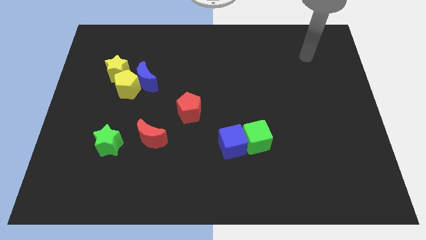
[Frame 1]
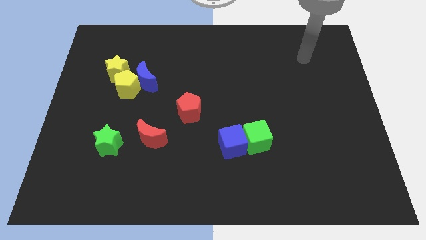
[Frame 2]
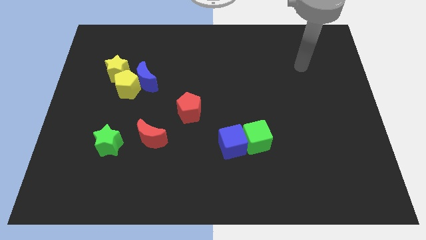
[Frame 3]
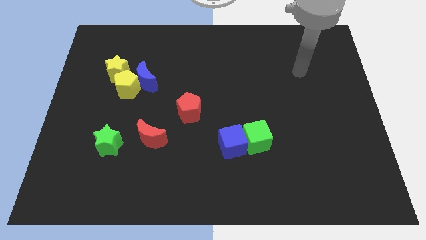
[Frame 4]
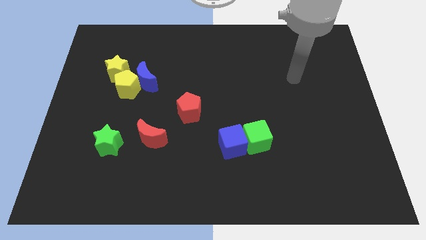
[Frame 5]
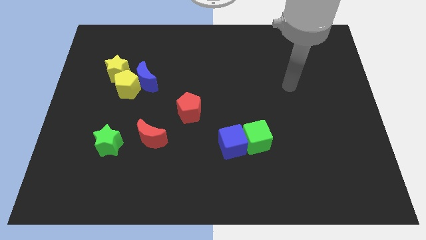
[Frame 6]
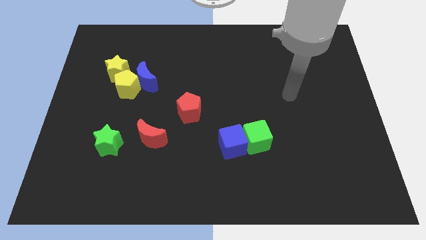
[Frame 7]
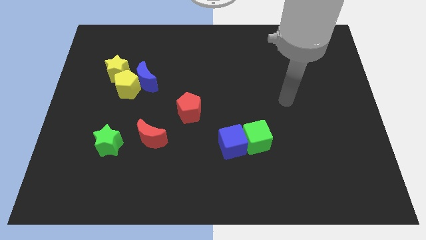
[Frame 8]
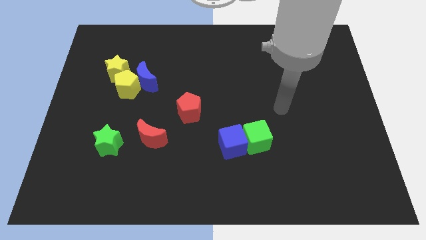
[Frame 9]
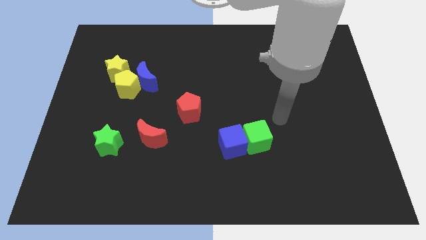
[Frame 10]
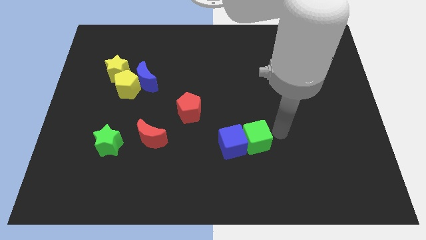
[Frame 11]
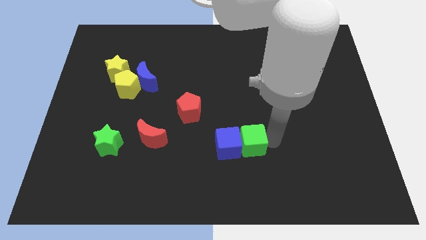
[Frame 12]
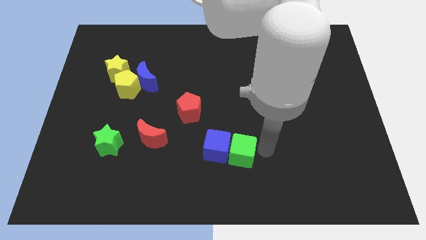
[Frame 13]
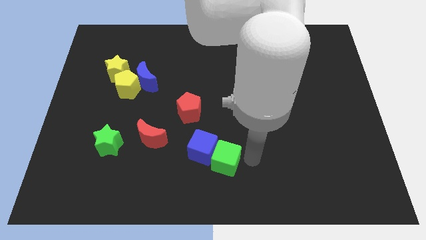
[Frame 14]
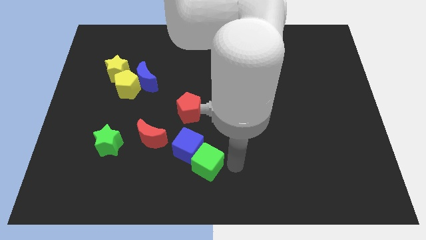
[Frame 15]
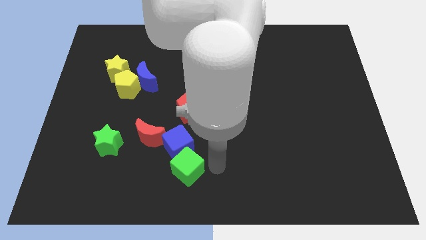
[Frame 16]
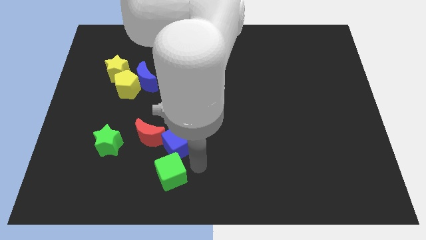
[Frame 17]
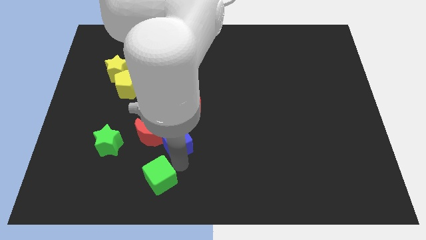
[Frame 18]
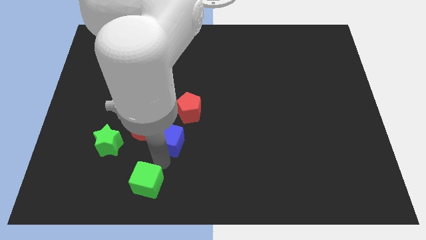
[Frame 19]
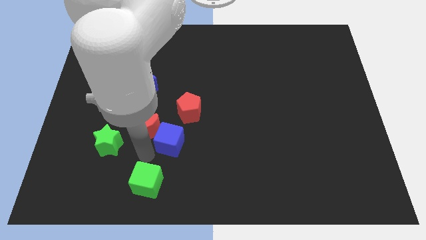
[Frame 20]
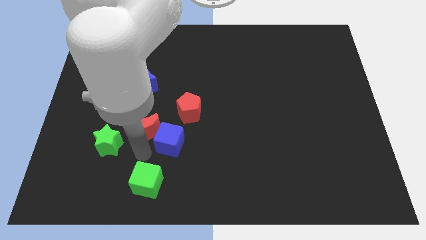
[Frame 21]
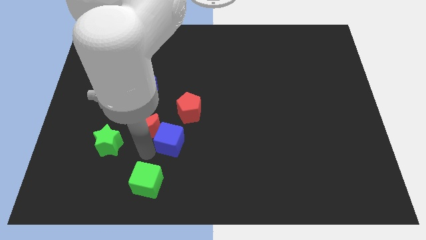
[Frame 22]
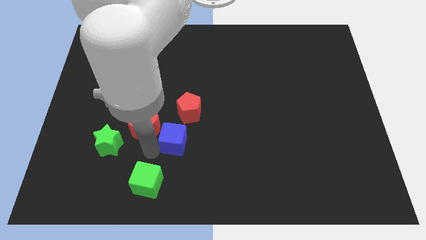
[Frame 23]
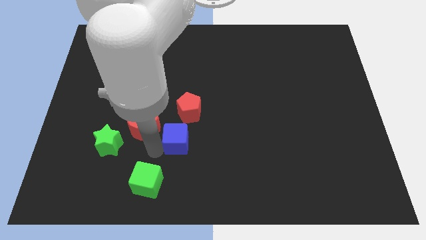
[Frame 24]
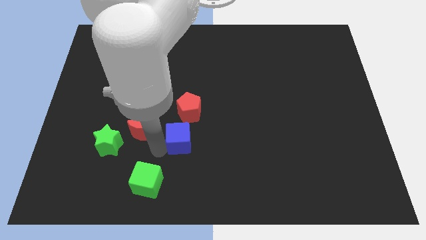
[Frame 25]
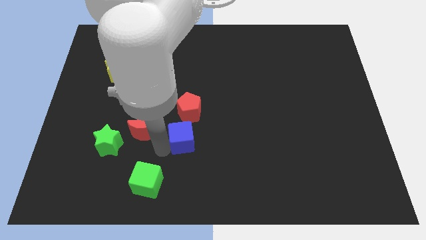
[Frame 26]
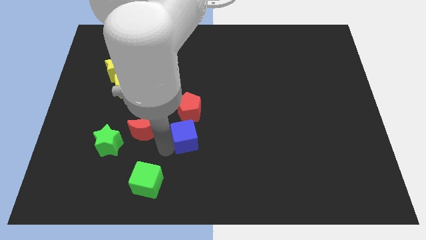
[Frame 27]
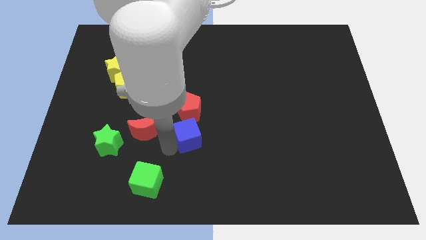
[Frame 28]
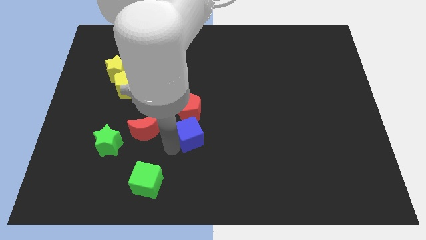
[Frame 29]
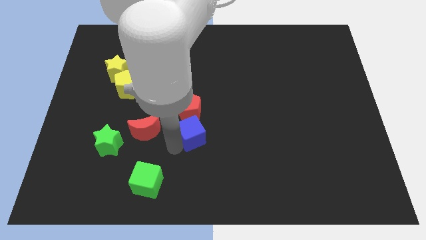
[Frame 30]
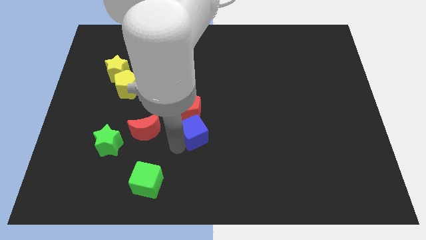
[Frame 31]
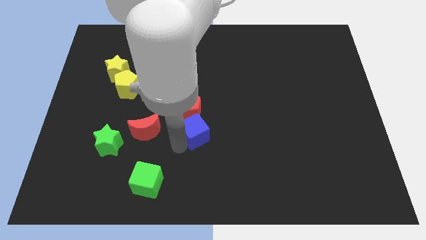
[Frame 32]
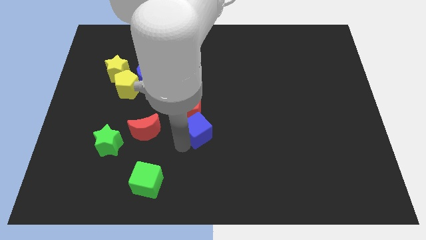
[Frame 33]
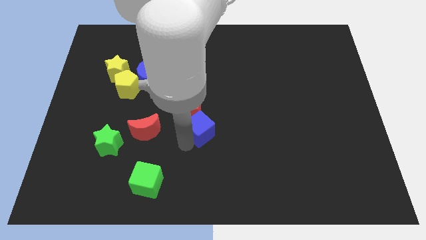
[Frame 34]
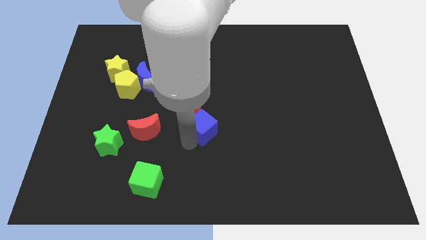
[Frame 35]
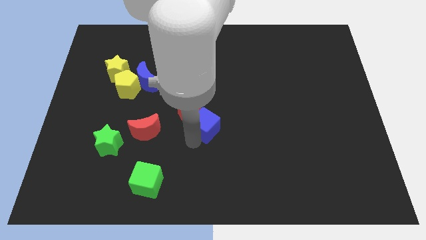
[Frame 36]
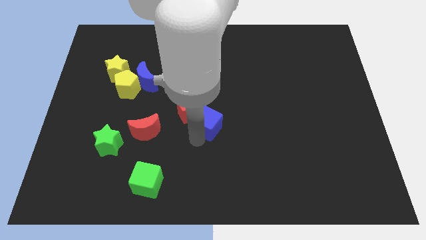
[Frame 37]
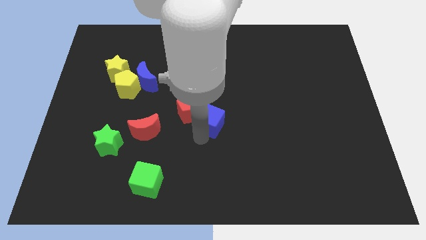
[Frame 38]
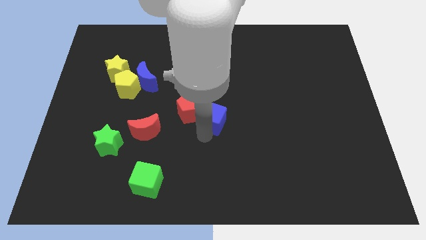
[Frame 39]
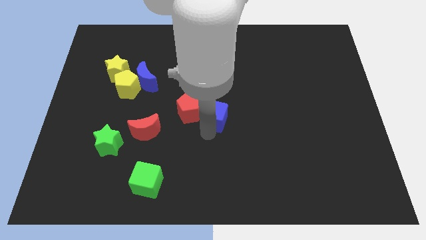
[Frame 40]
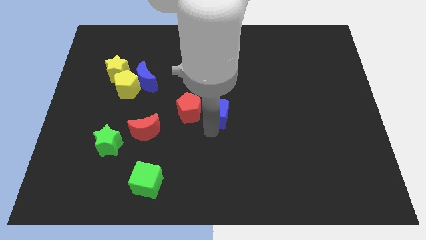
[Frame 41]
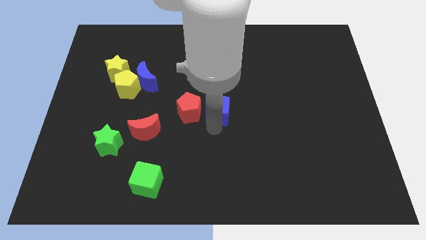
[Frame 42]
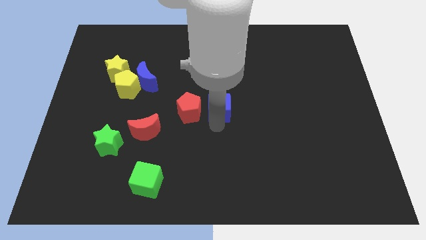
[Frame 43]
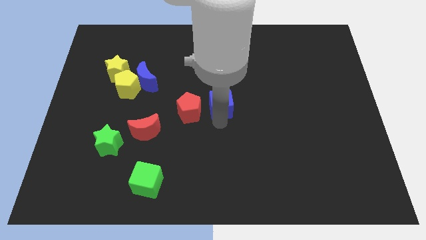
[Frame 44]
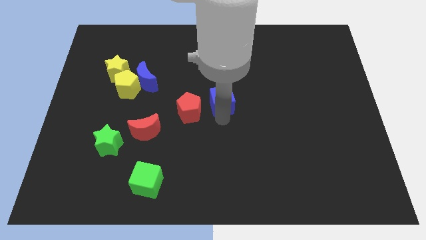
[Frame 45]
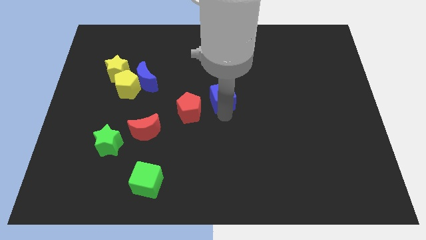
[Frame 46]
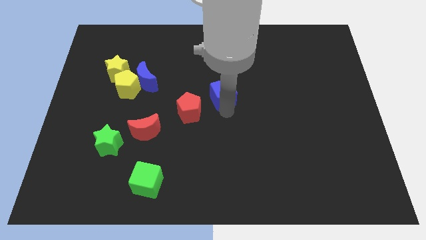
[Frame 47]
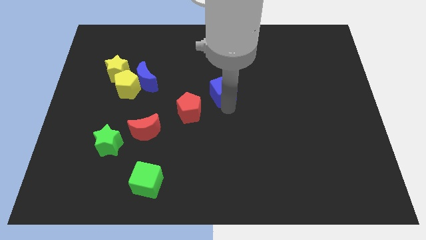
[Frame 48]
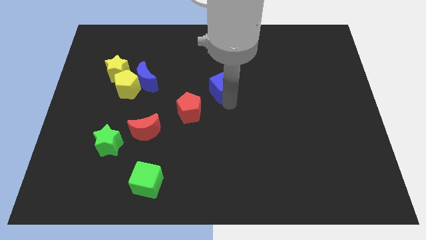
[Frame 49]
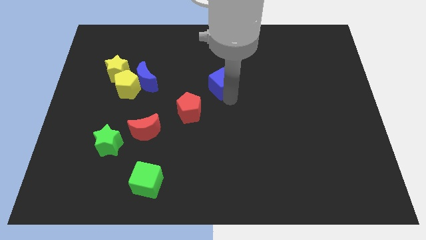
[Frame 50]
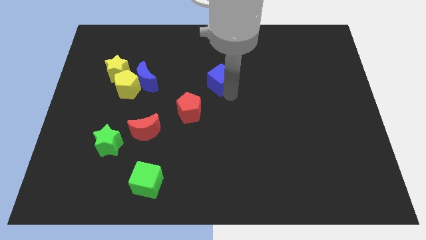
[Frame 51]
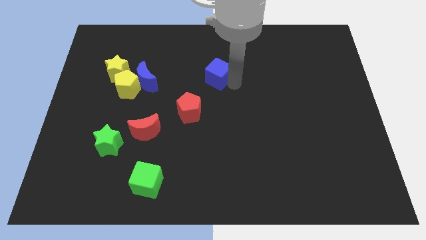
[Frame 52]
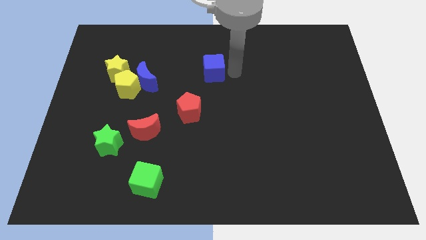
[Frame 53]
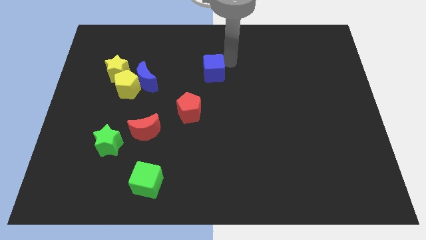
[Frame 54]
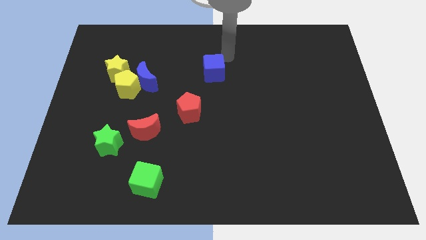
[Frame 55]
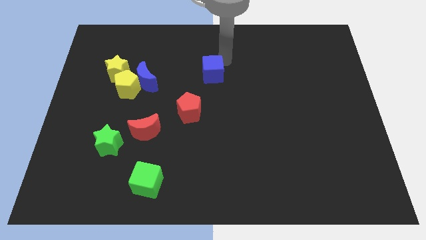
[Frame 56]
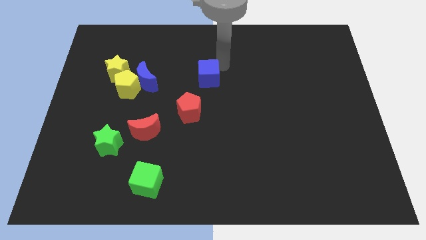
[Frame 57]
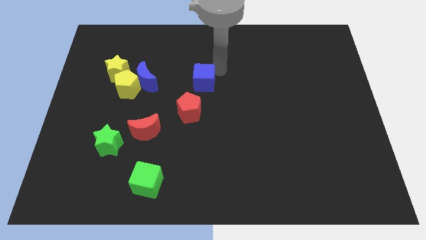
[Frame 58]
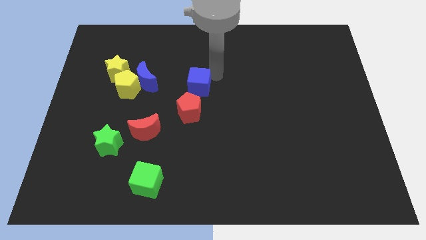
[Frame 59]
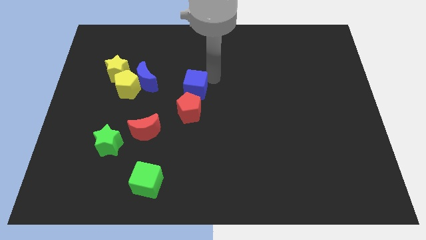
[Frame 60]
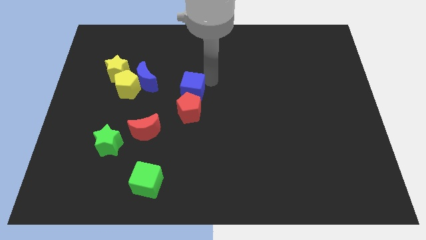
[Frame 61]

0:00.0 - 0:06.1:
move the blue cube diagonally up and to the left of the red pentagon

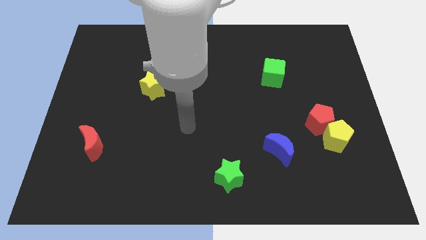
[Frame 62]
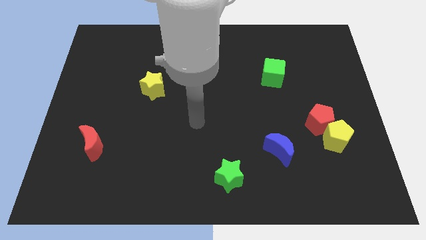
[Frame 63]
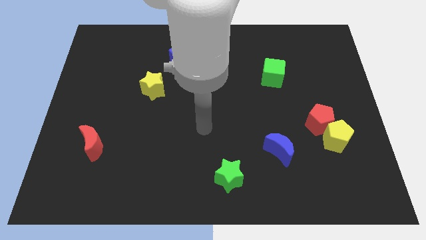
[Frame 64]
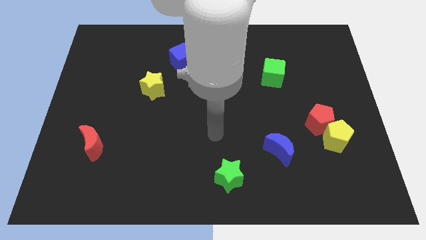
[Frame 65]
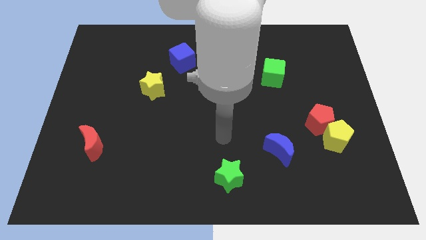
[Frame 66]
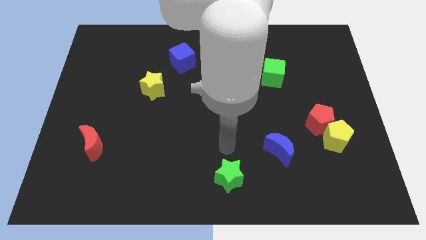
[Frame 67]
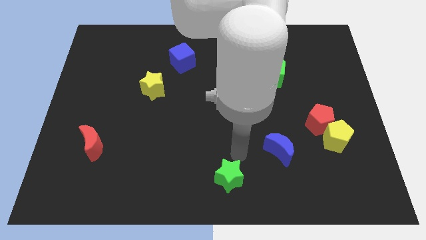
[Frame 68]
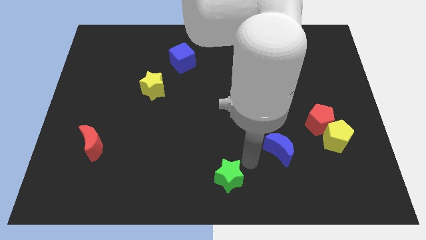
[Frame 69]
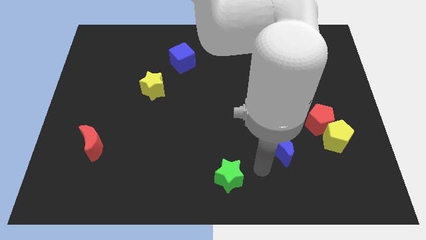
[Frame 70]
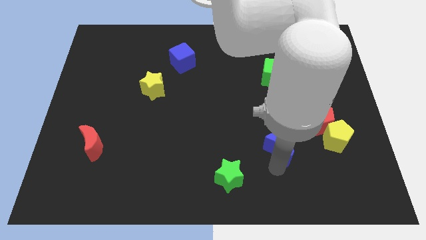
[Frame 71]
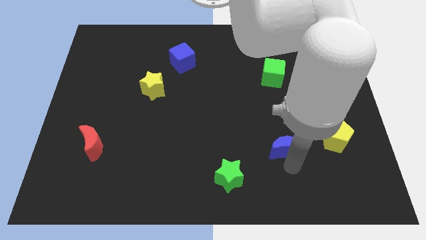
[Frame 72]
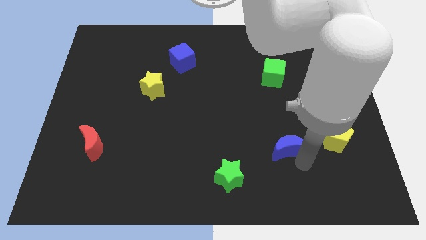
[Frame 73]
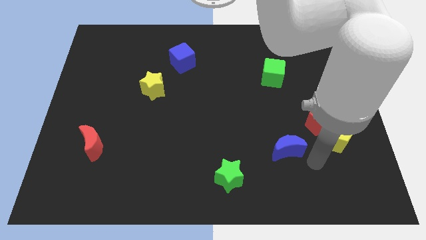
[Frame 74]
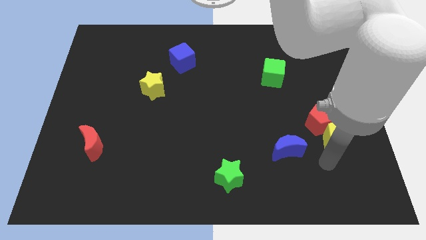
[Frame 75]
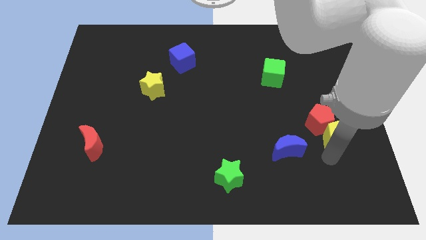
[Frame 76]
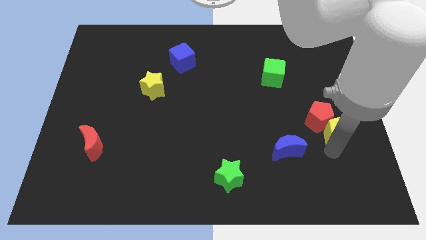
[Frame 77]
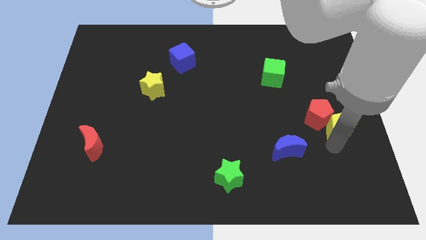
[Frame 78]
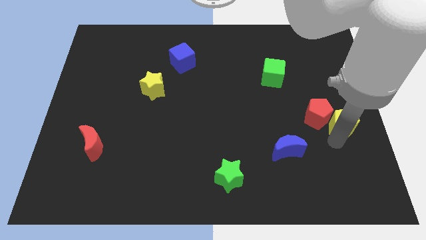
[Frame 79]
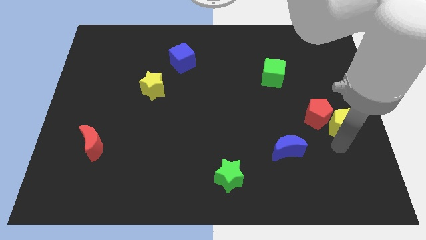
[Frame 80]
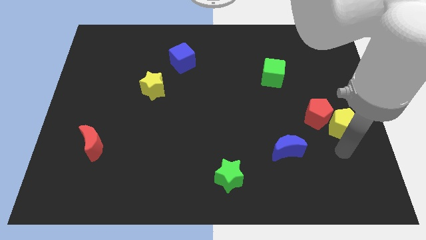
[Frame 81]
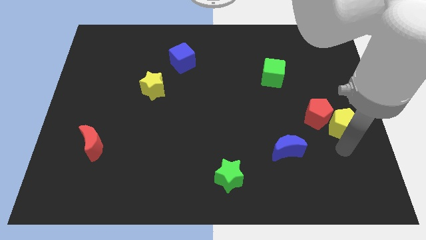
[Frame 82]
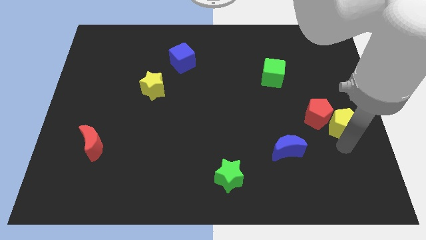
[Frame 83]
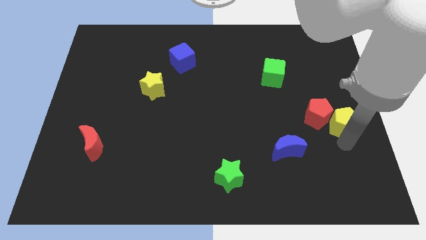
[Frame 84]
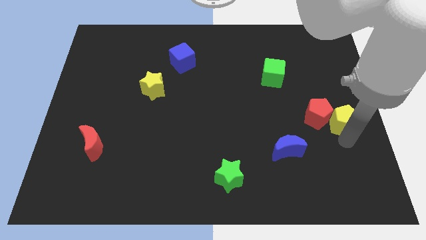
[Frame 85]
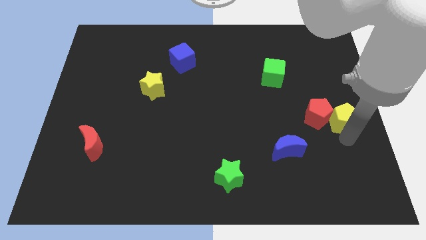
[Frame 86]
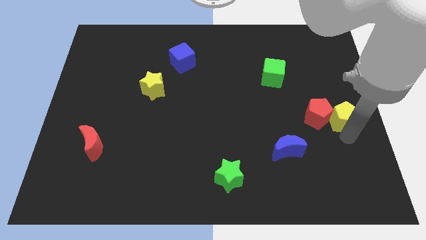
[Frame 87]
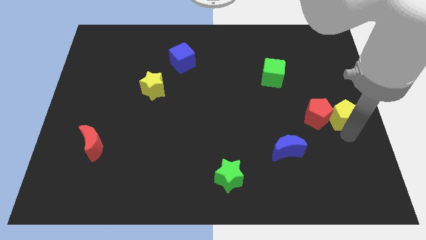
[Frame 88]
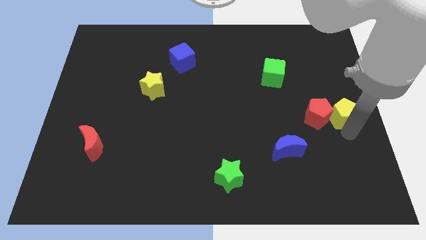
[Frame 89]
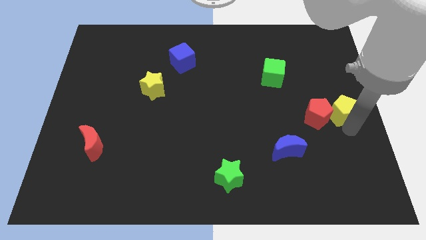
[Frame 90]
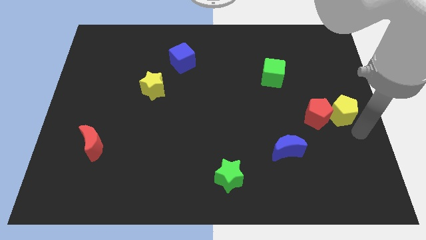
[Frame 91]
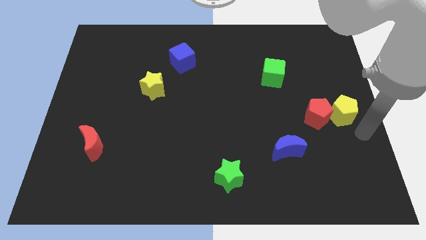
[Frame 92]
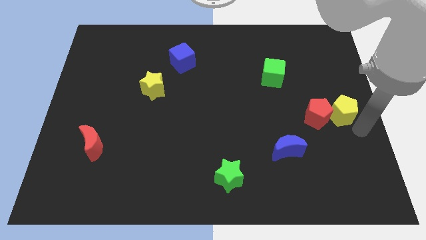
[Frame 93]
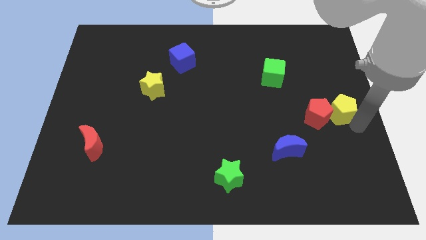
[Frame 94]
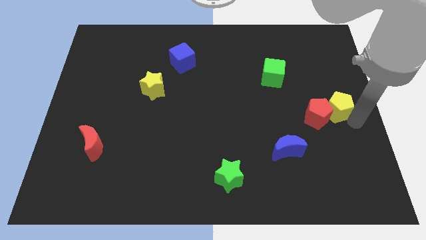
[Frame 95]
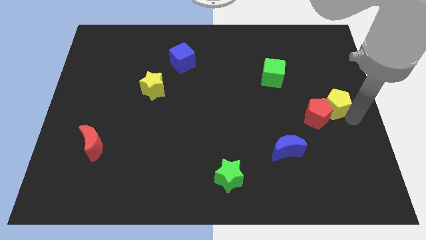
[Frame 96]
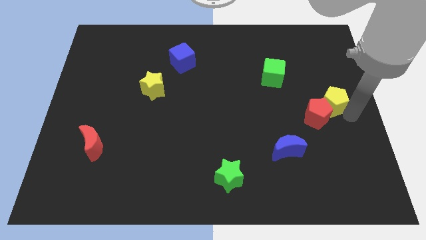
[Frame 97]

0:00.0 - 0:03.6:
slide the yellow pentagon to the top side of the red pentagon
